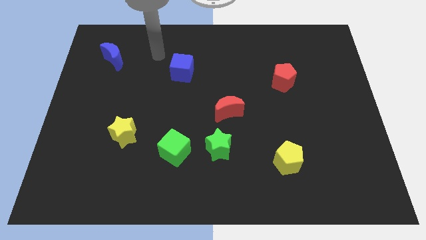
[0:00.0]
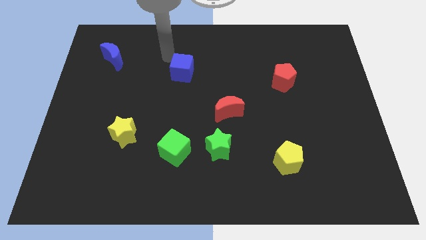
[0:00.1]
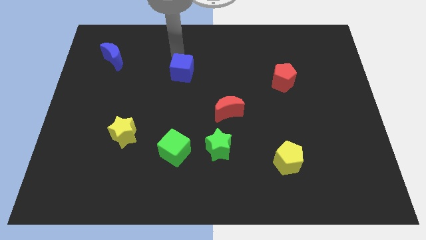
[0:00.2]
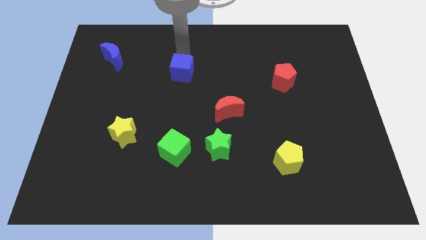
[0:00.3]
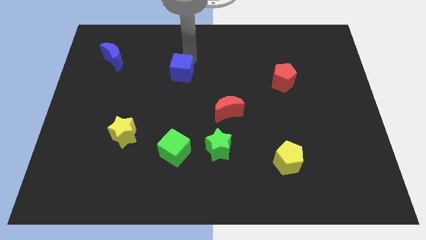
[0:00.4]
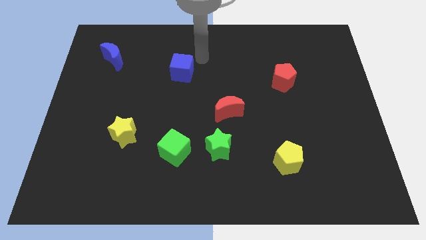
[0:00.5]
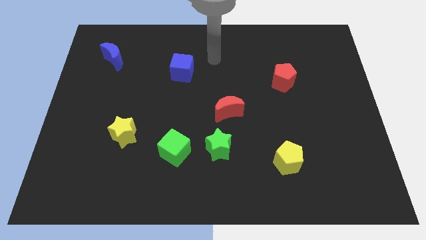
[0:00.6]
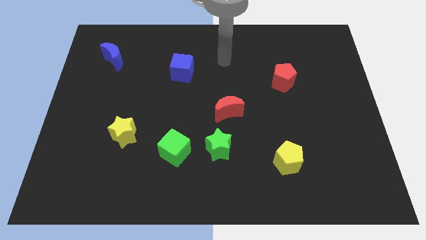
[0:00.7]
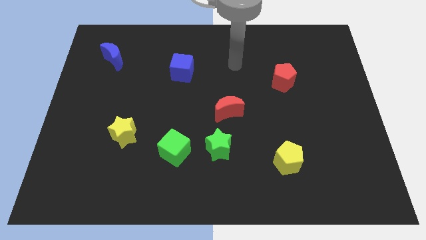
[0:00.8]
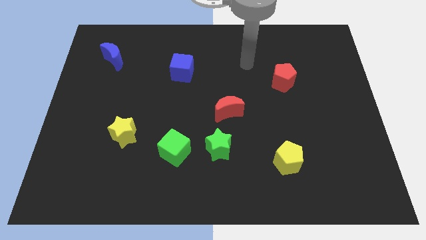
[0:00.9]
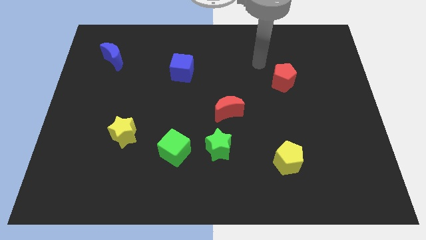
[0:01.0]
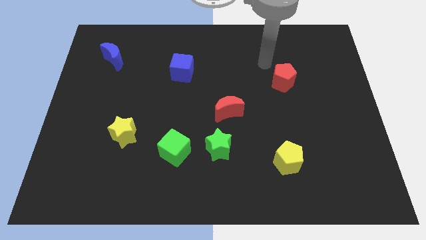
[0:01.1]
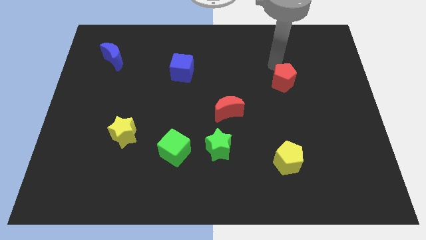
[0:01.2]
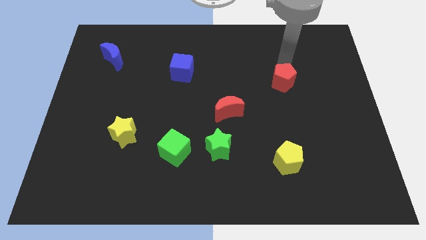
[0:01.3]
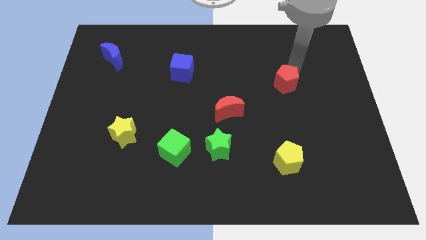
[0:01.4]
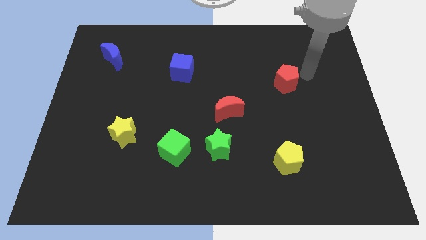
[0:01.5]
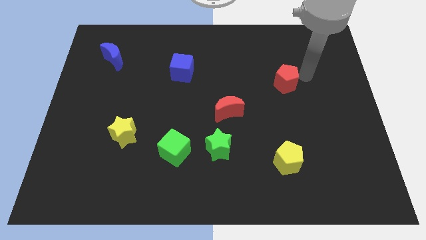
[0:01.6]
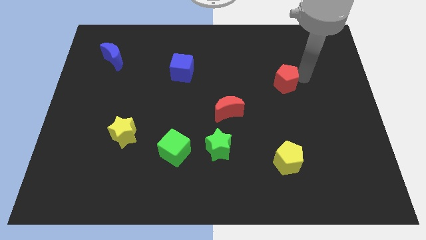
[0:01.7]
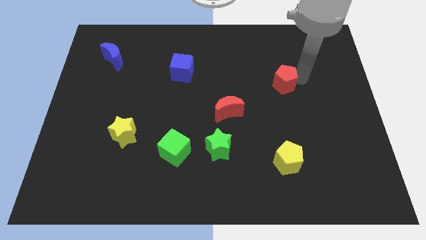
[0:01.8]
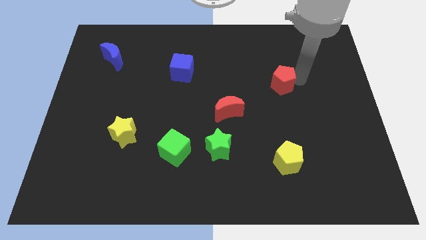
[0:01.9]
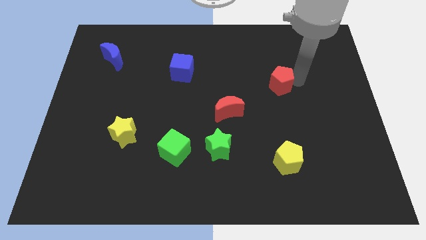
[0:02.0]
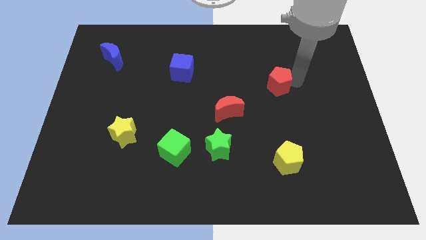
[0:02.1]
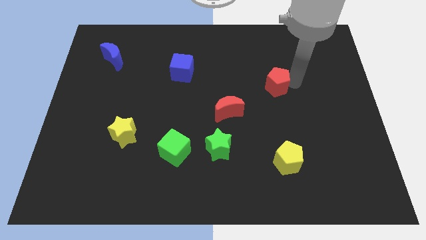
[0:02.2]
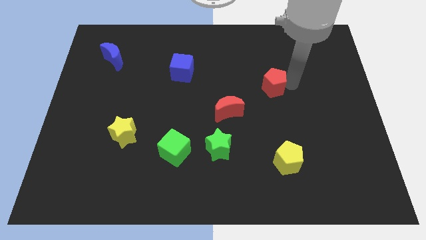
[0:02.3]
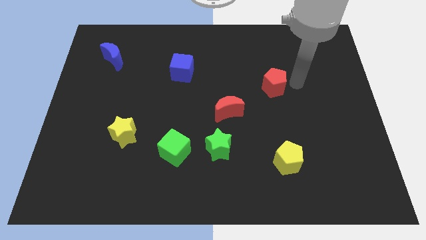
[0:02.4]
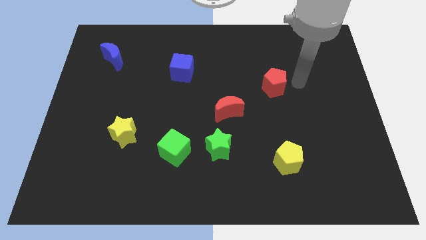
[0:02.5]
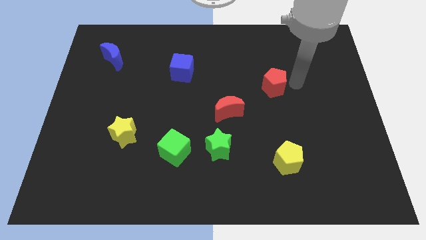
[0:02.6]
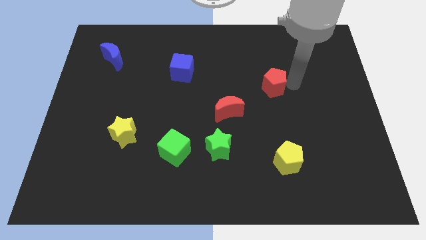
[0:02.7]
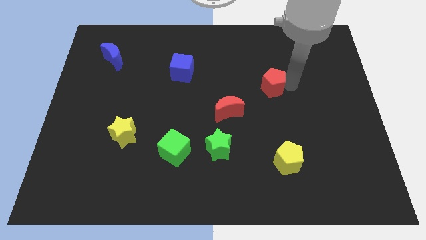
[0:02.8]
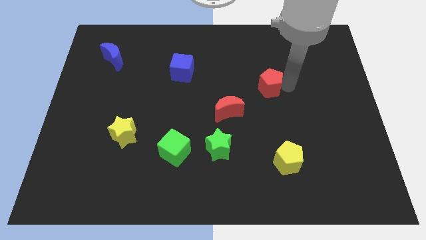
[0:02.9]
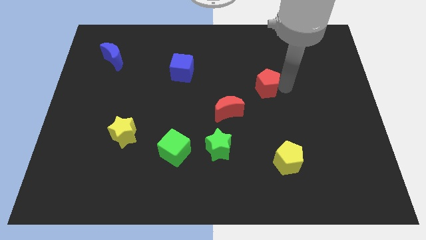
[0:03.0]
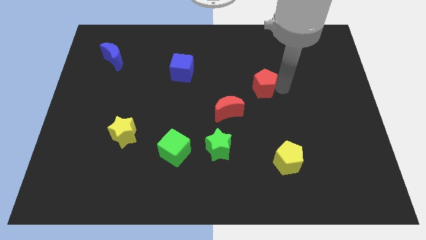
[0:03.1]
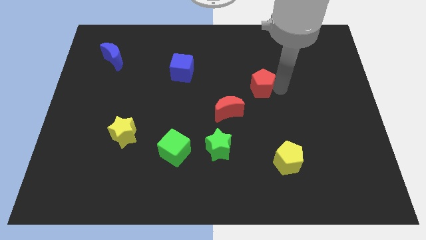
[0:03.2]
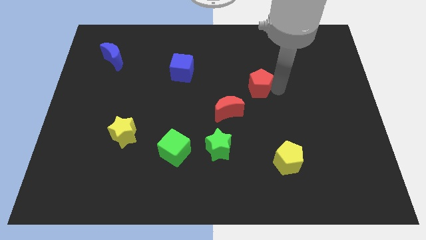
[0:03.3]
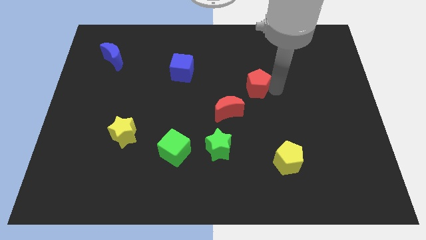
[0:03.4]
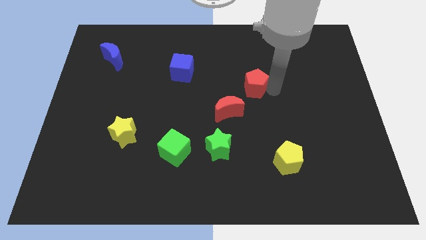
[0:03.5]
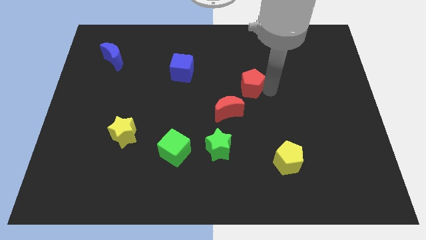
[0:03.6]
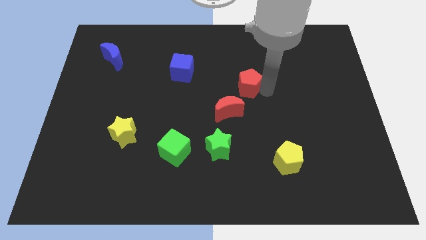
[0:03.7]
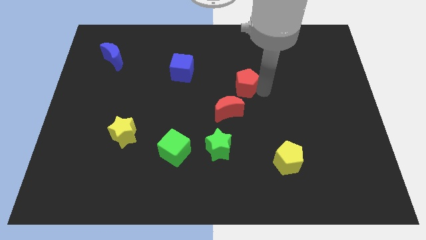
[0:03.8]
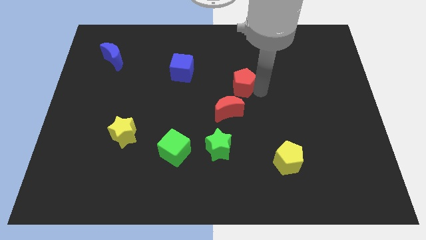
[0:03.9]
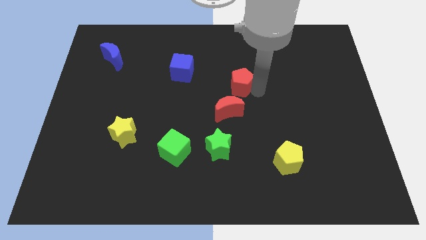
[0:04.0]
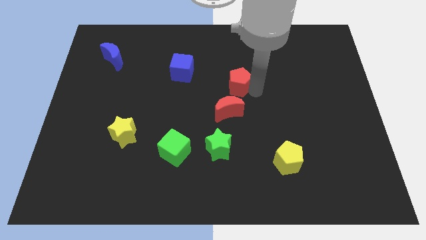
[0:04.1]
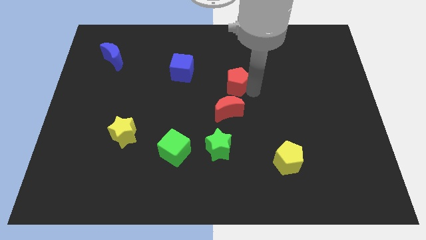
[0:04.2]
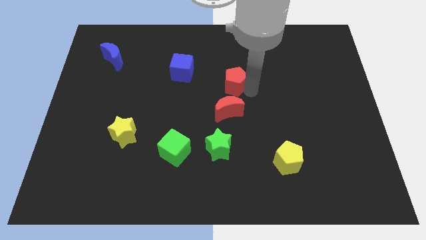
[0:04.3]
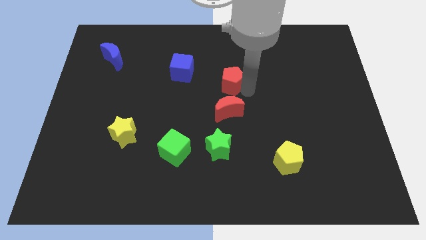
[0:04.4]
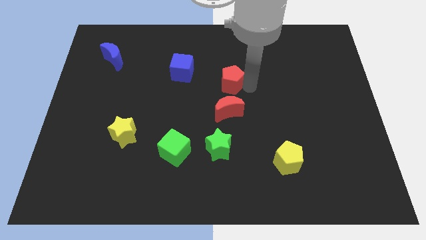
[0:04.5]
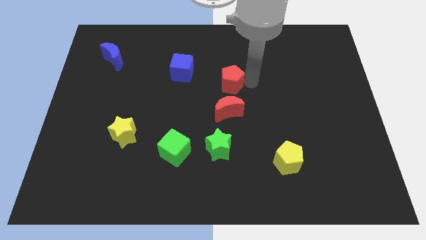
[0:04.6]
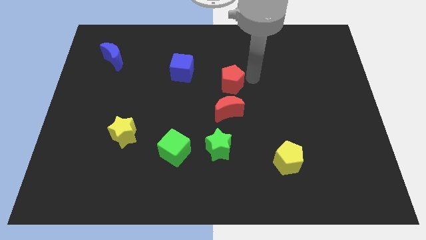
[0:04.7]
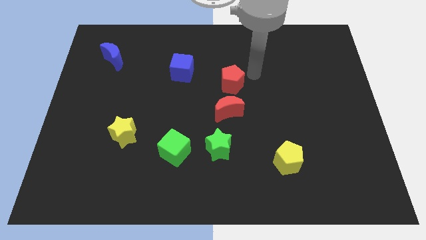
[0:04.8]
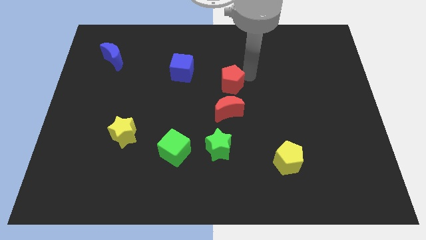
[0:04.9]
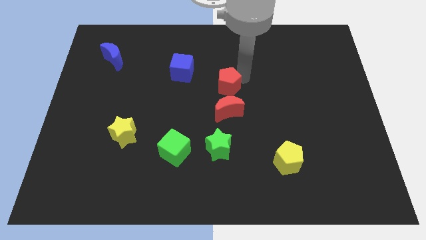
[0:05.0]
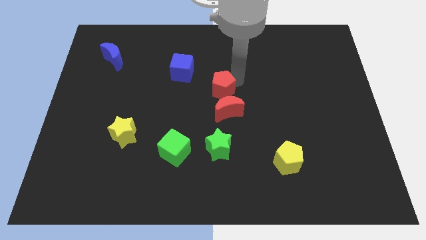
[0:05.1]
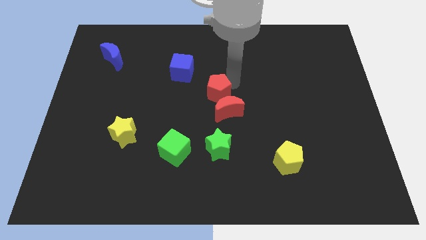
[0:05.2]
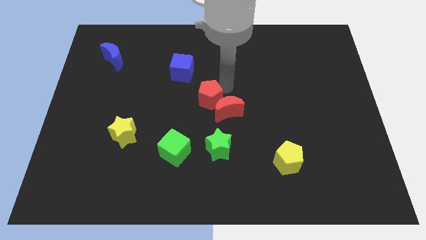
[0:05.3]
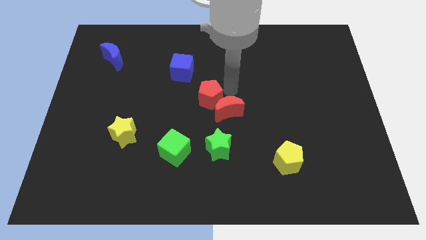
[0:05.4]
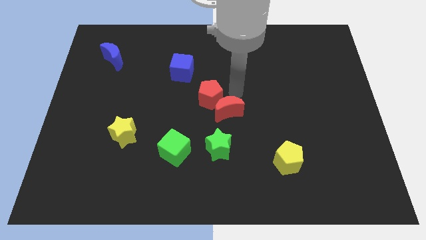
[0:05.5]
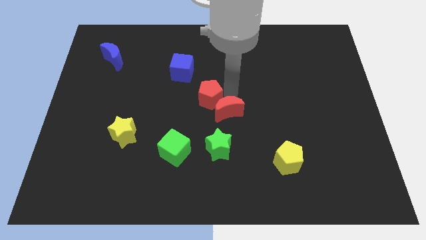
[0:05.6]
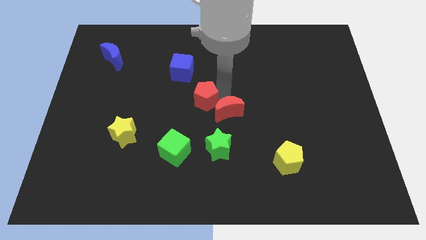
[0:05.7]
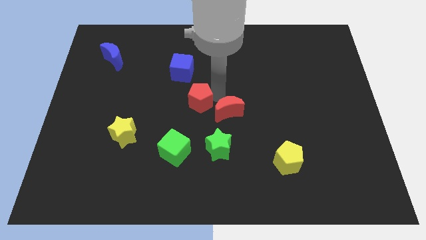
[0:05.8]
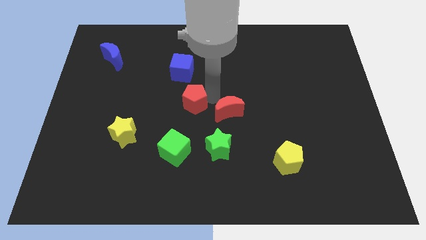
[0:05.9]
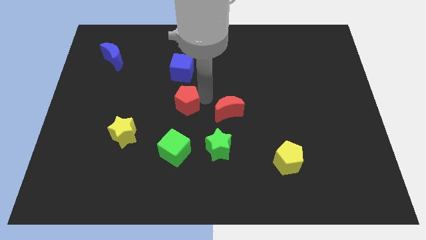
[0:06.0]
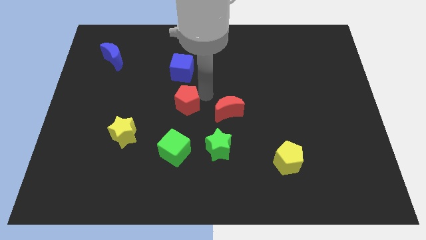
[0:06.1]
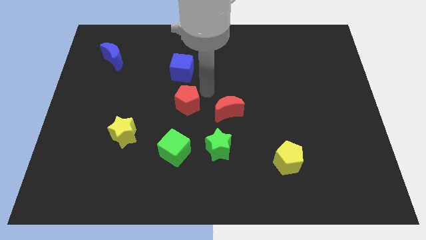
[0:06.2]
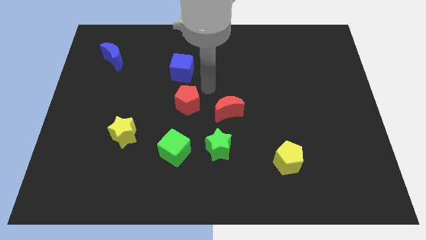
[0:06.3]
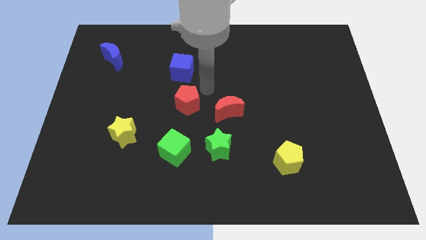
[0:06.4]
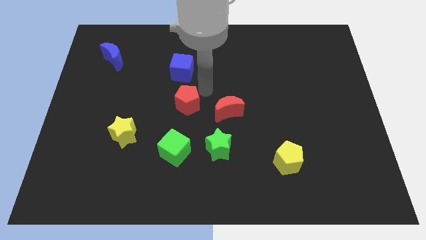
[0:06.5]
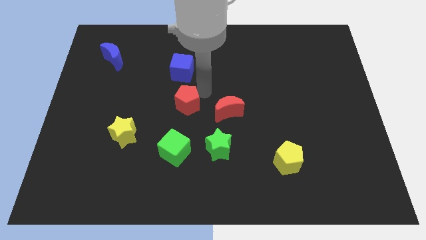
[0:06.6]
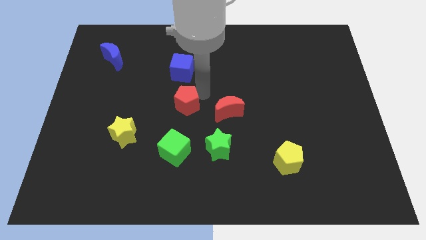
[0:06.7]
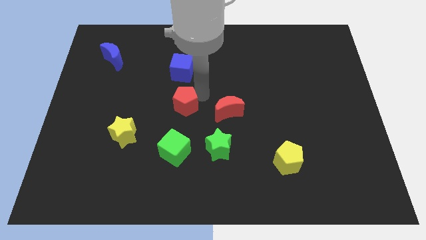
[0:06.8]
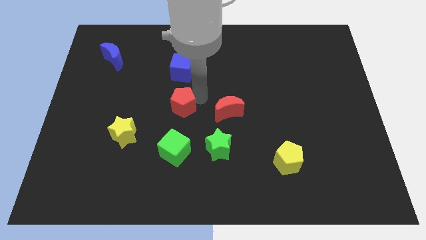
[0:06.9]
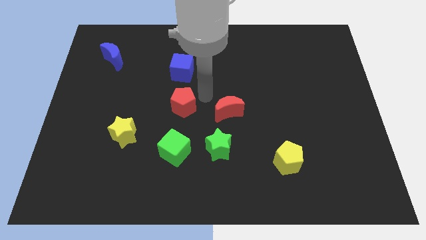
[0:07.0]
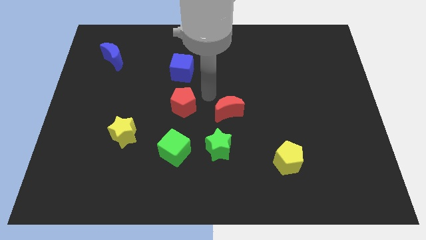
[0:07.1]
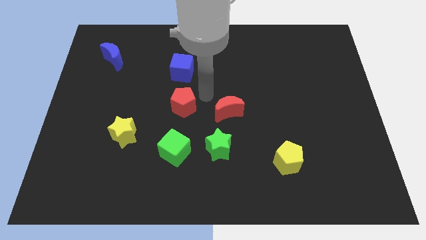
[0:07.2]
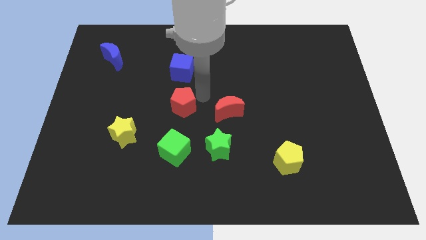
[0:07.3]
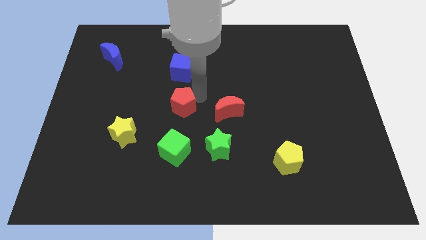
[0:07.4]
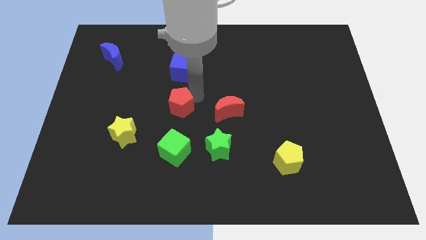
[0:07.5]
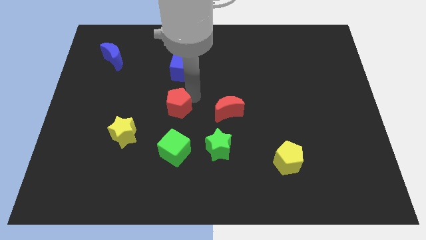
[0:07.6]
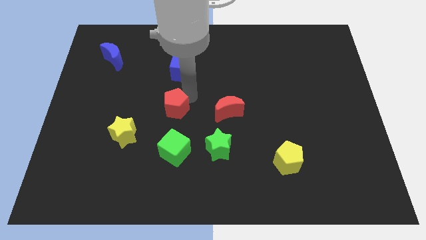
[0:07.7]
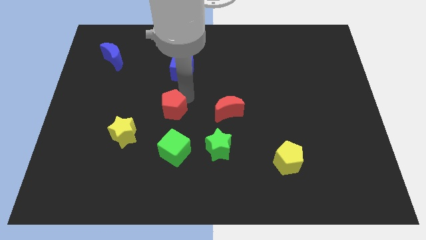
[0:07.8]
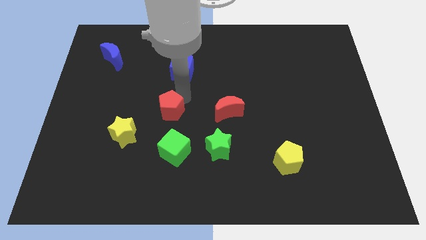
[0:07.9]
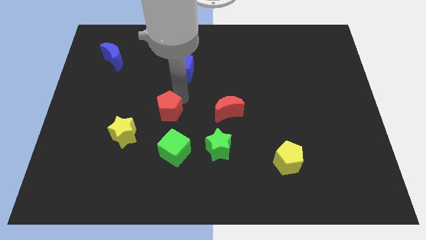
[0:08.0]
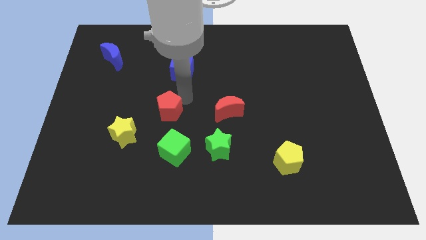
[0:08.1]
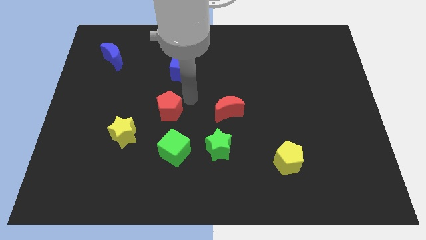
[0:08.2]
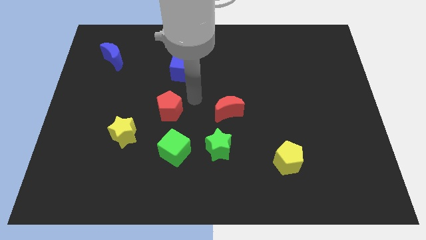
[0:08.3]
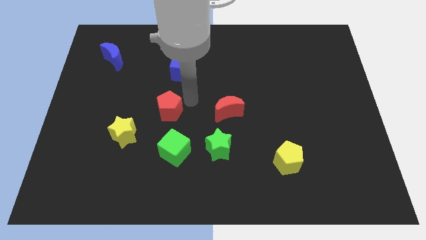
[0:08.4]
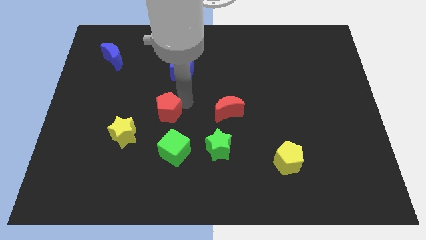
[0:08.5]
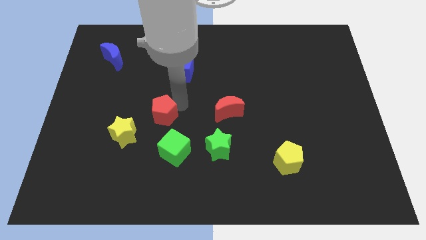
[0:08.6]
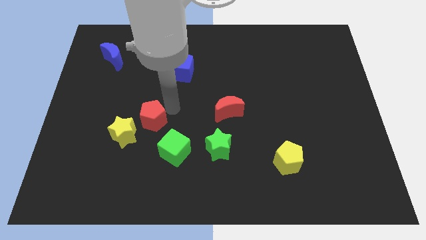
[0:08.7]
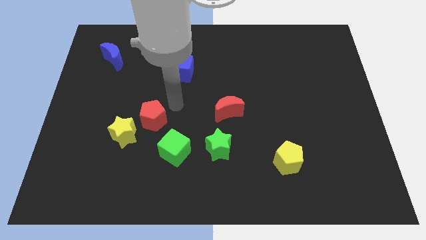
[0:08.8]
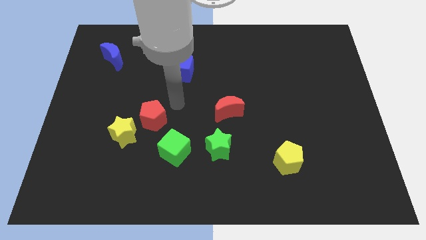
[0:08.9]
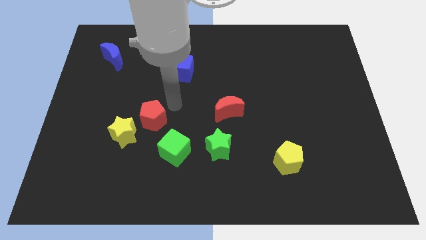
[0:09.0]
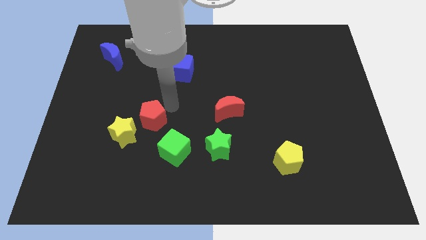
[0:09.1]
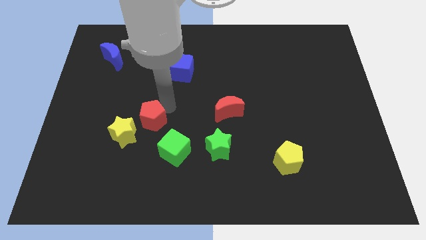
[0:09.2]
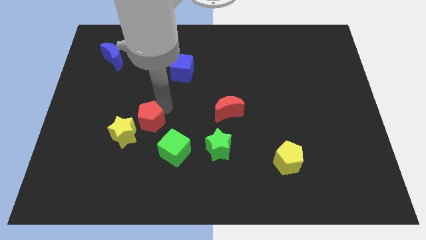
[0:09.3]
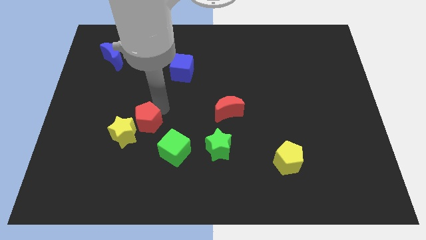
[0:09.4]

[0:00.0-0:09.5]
put the red pentagon next to the yellow star
